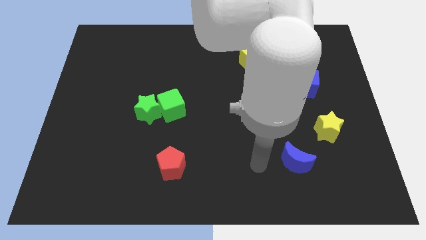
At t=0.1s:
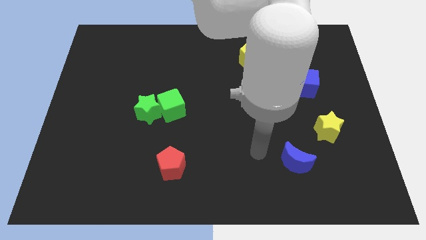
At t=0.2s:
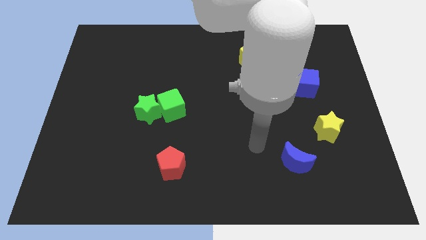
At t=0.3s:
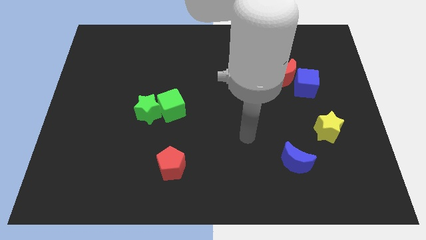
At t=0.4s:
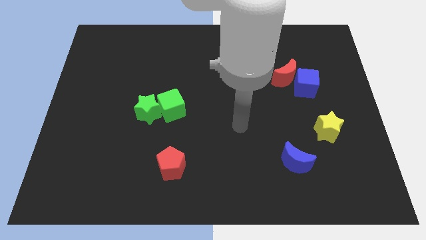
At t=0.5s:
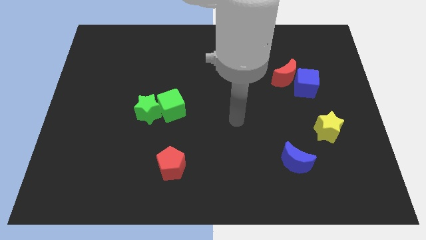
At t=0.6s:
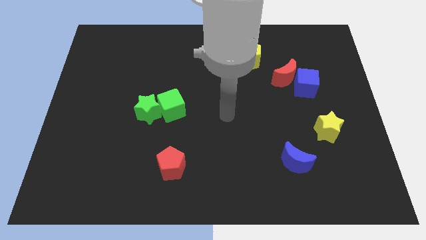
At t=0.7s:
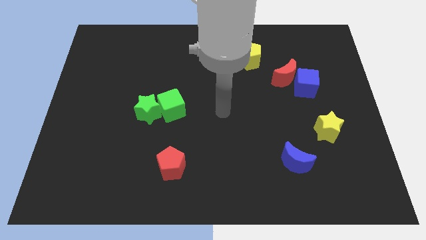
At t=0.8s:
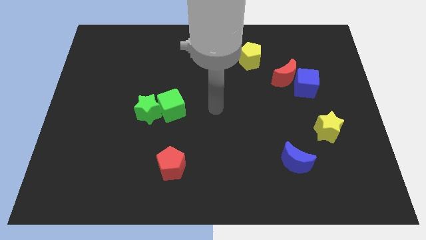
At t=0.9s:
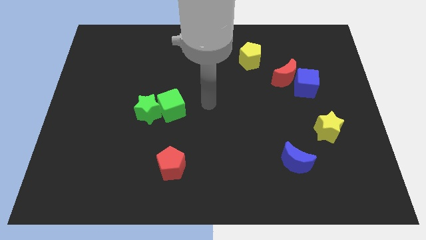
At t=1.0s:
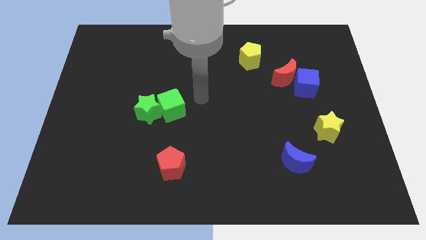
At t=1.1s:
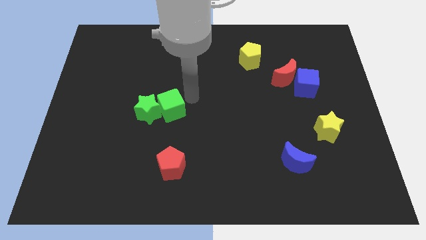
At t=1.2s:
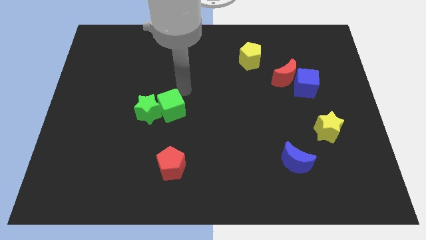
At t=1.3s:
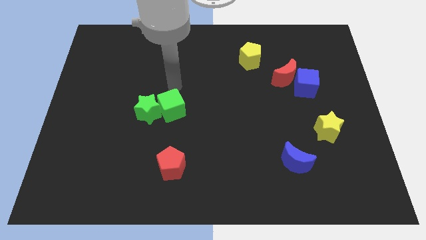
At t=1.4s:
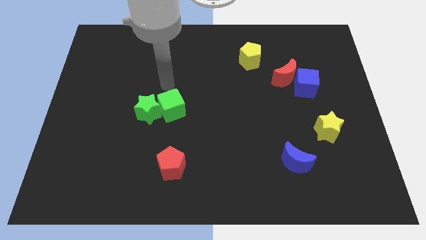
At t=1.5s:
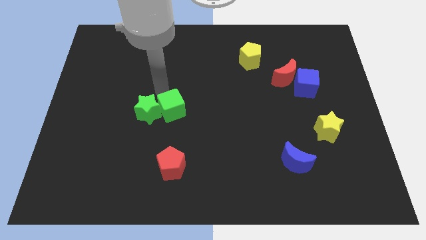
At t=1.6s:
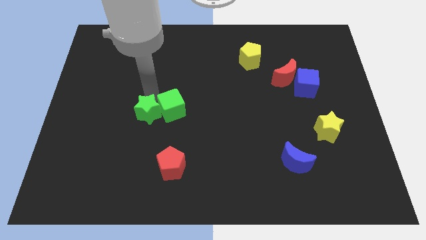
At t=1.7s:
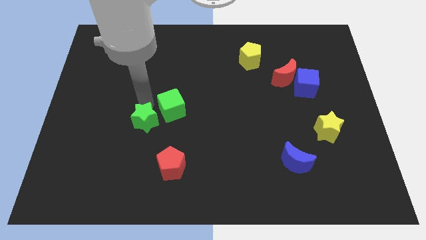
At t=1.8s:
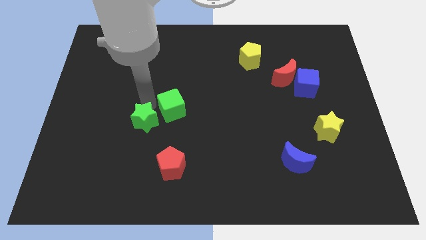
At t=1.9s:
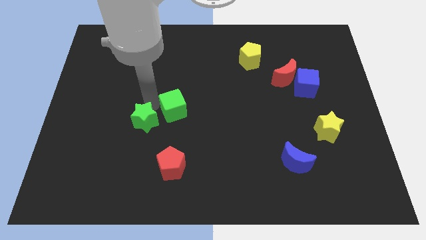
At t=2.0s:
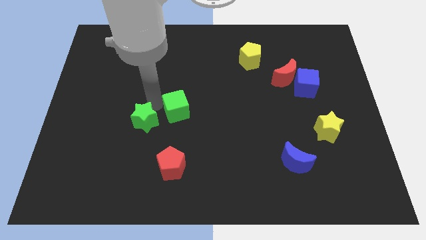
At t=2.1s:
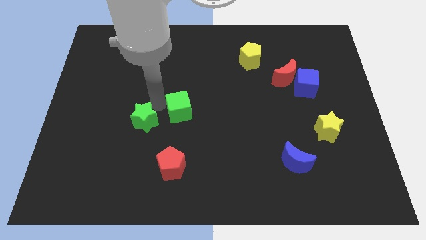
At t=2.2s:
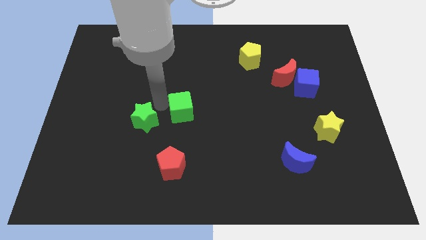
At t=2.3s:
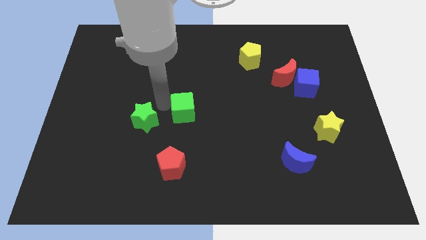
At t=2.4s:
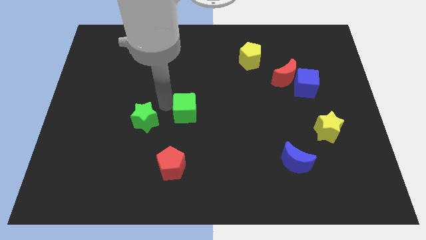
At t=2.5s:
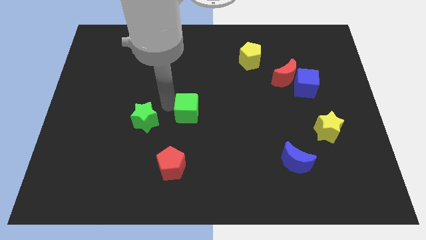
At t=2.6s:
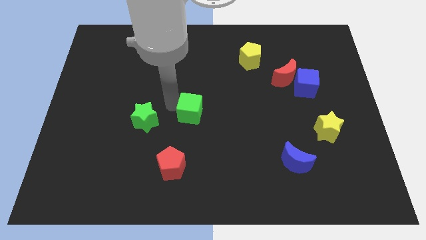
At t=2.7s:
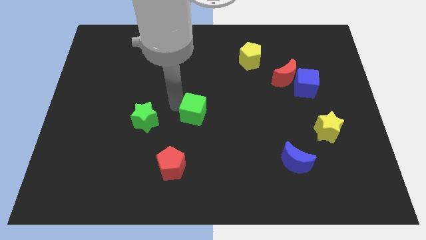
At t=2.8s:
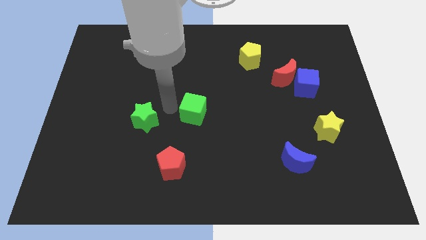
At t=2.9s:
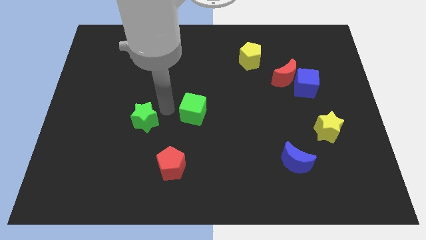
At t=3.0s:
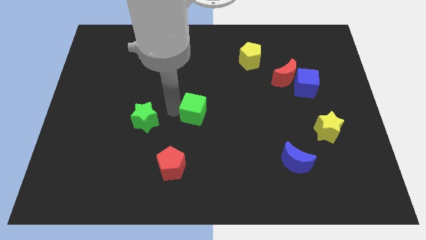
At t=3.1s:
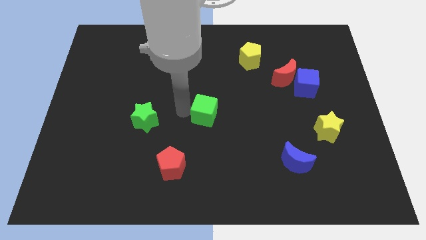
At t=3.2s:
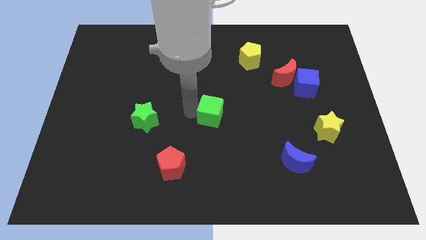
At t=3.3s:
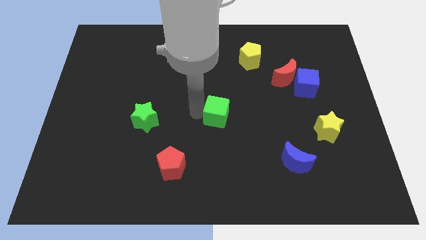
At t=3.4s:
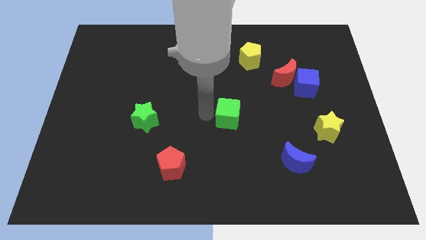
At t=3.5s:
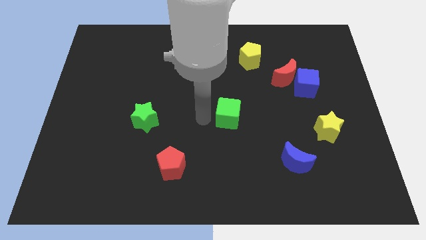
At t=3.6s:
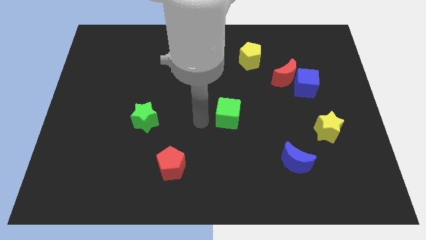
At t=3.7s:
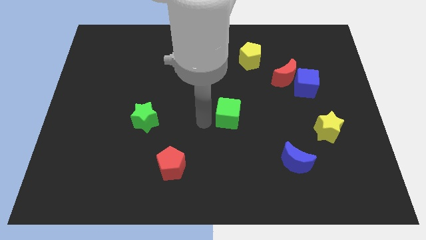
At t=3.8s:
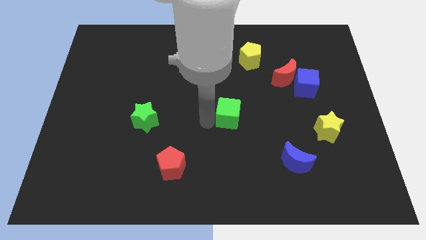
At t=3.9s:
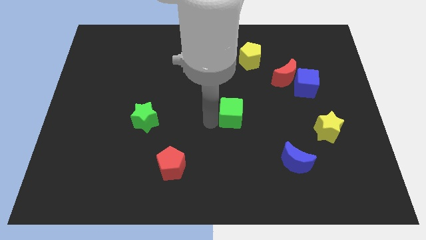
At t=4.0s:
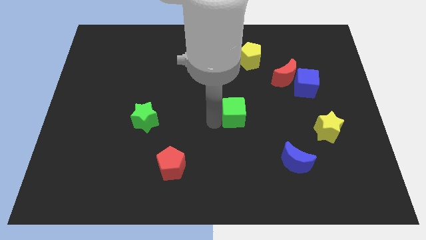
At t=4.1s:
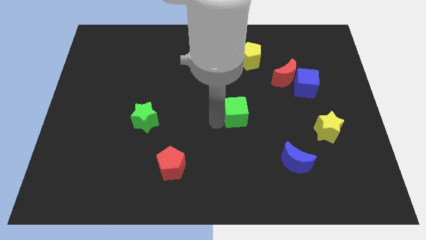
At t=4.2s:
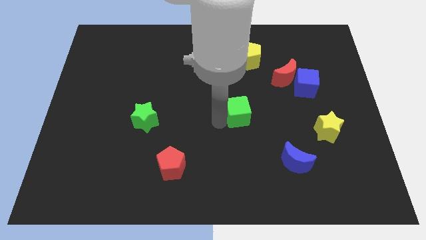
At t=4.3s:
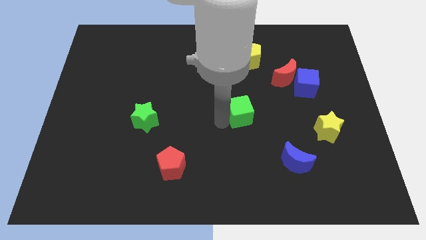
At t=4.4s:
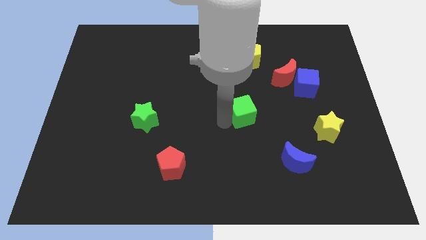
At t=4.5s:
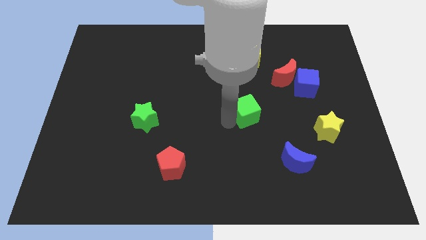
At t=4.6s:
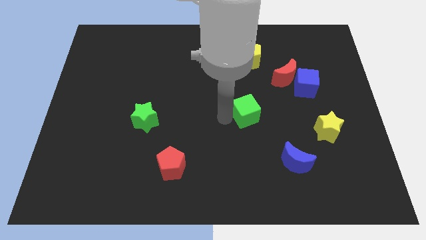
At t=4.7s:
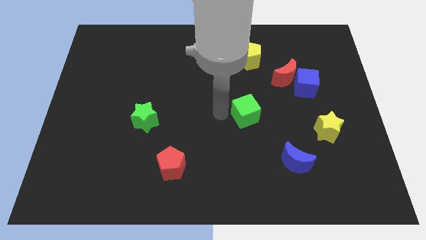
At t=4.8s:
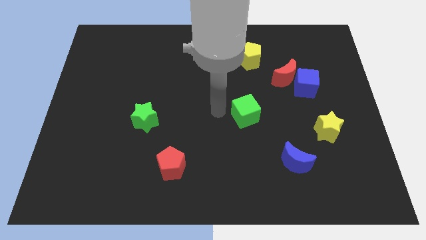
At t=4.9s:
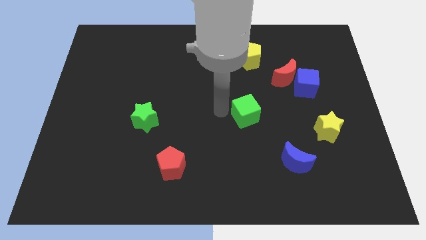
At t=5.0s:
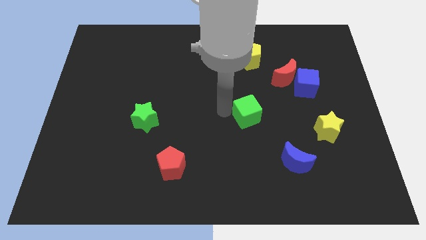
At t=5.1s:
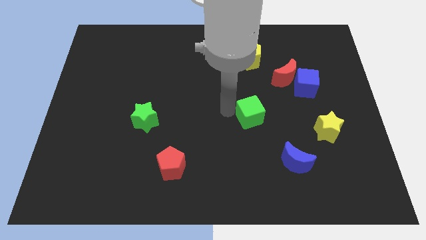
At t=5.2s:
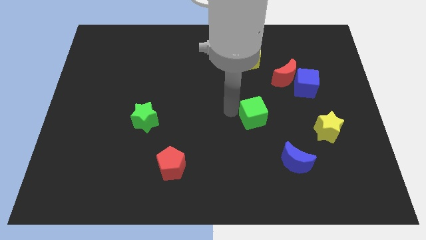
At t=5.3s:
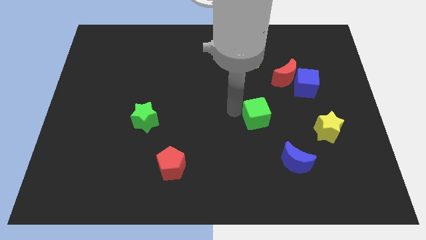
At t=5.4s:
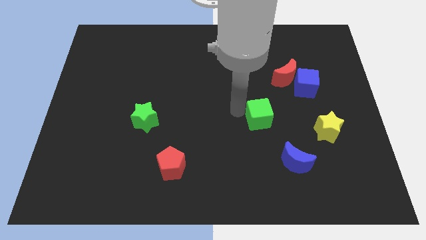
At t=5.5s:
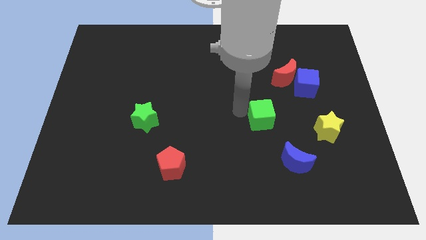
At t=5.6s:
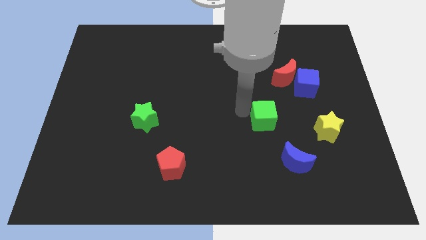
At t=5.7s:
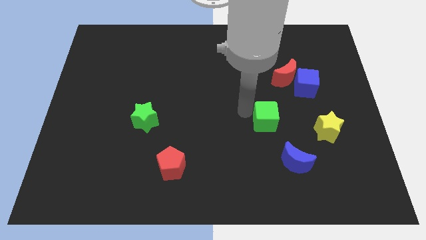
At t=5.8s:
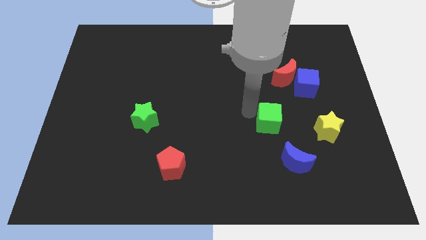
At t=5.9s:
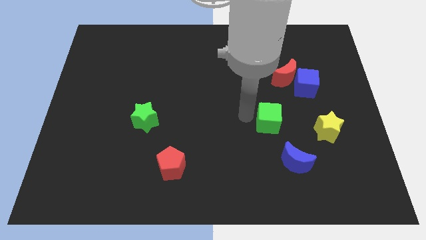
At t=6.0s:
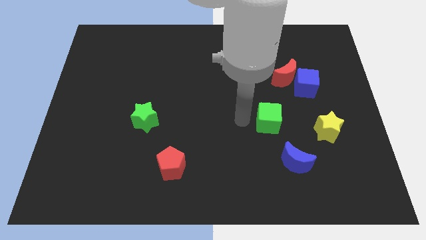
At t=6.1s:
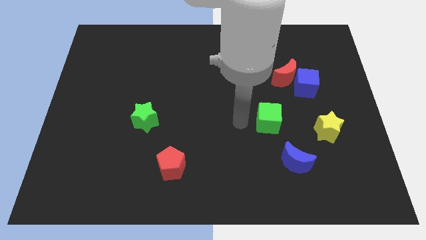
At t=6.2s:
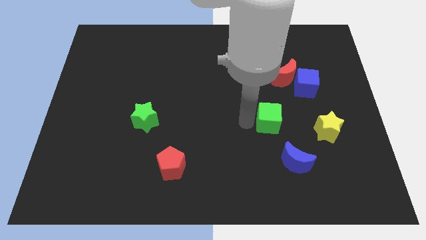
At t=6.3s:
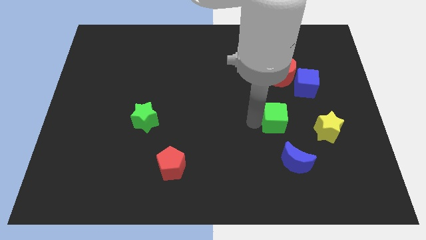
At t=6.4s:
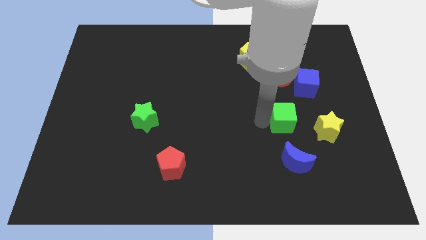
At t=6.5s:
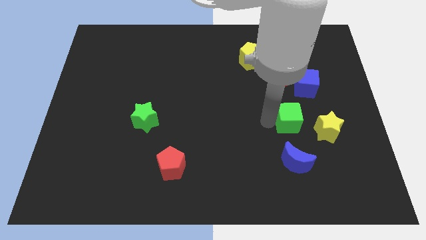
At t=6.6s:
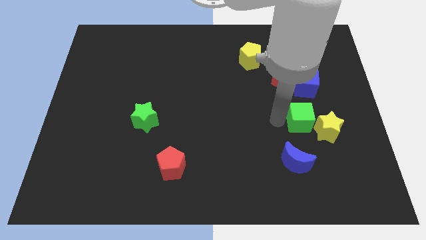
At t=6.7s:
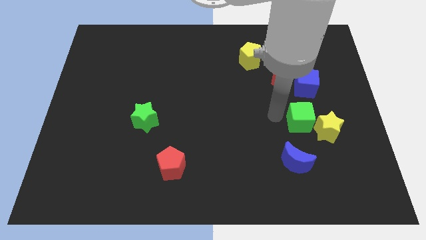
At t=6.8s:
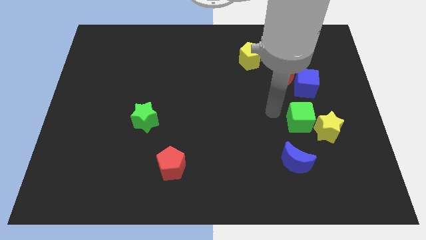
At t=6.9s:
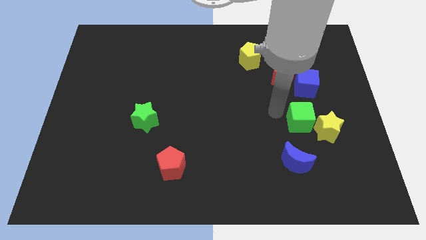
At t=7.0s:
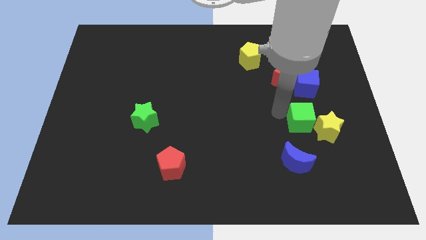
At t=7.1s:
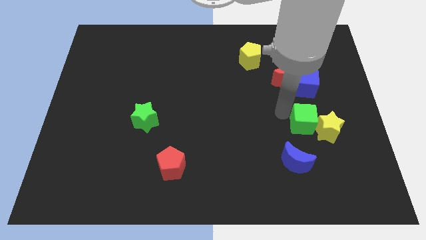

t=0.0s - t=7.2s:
slide the green cube next to the yellow star
